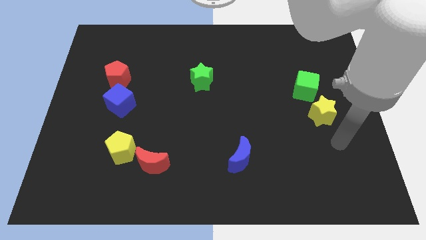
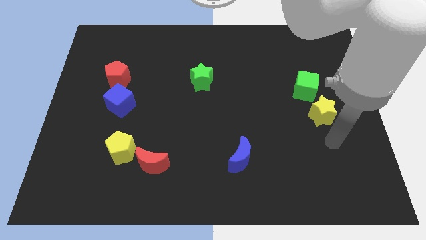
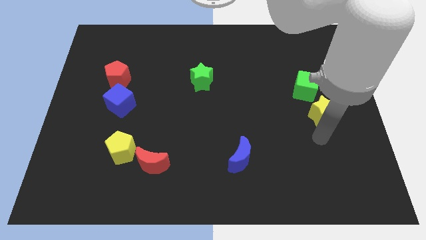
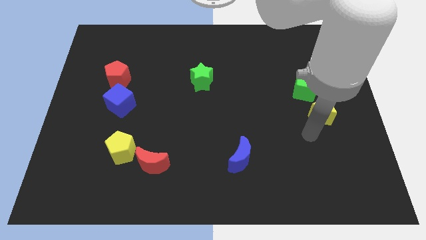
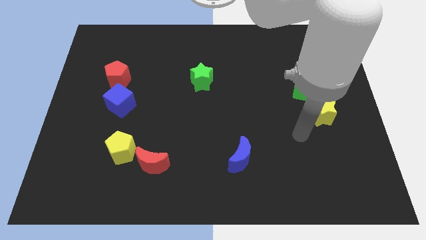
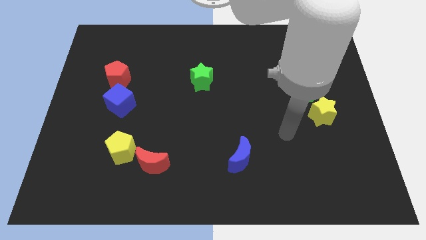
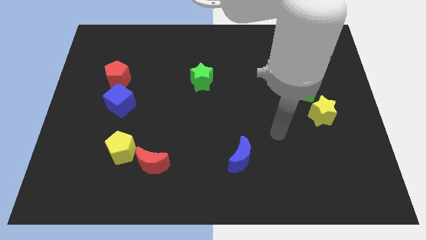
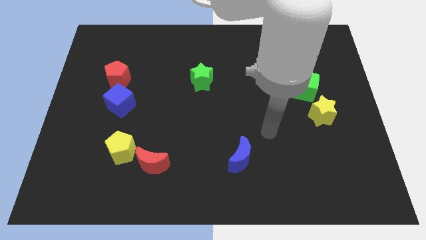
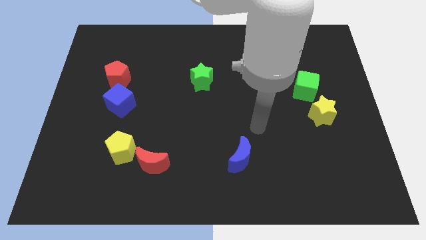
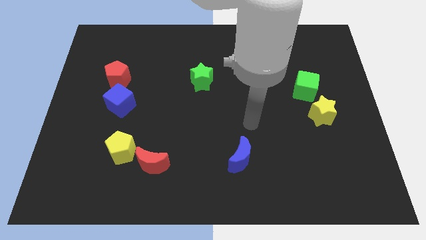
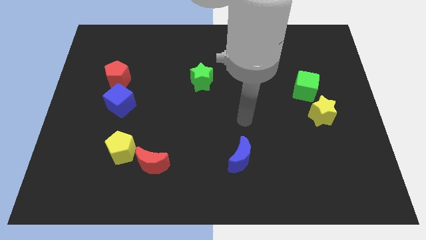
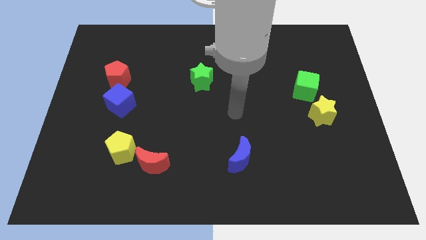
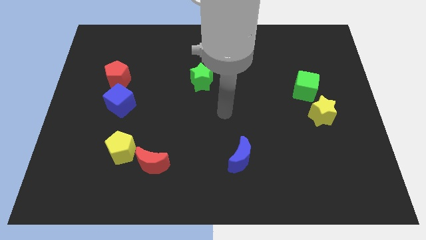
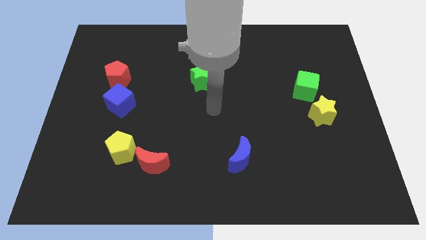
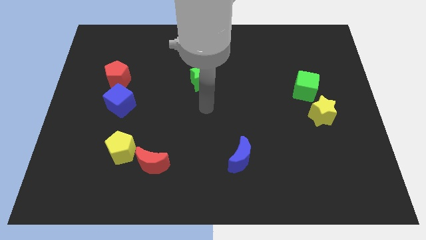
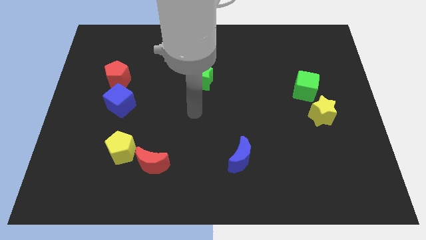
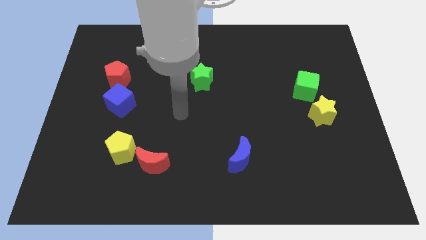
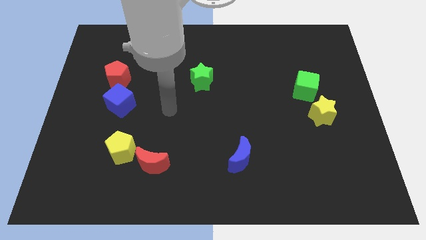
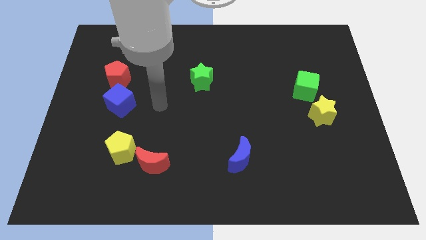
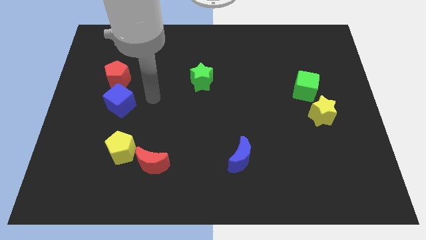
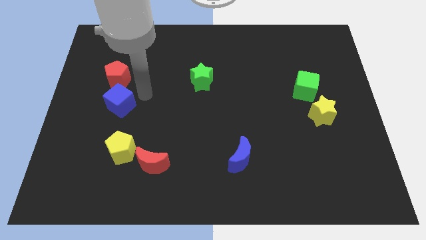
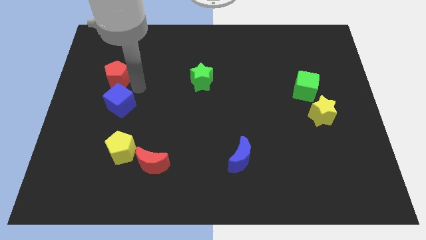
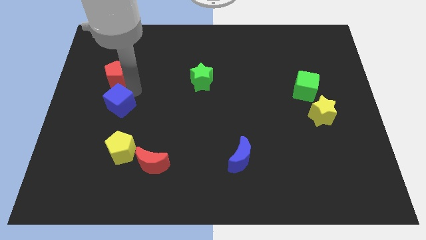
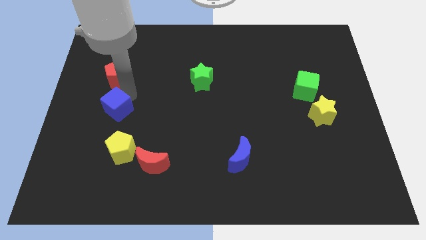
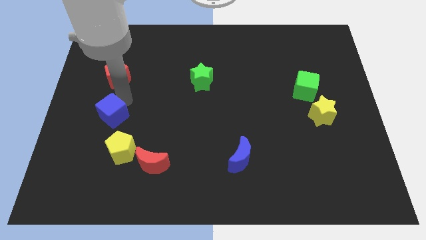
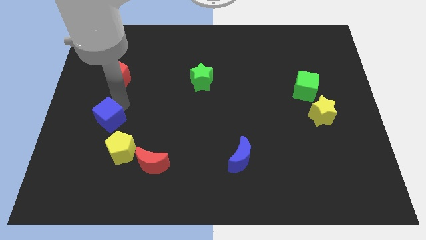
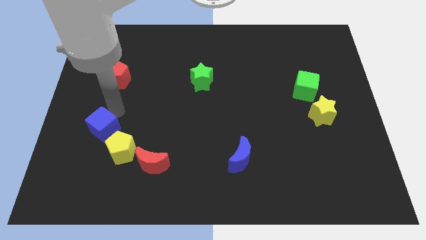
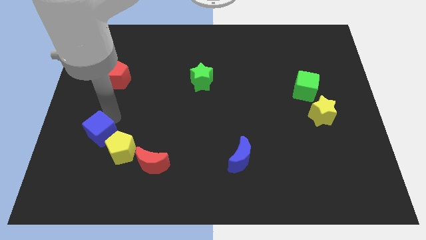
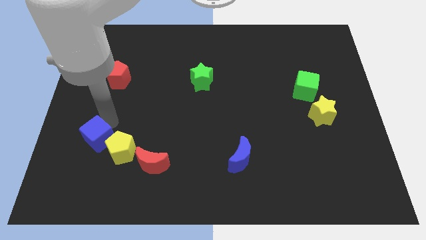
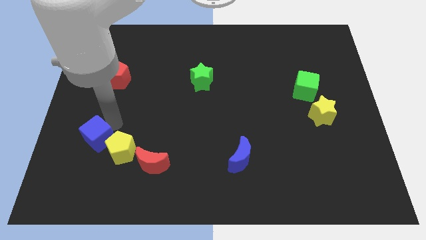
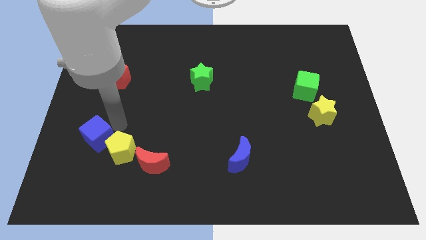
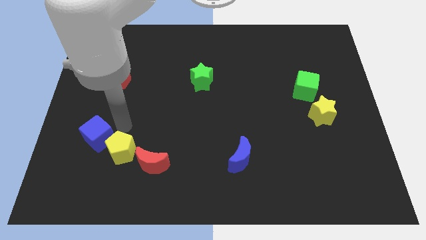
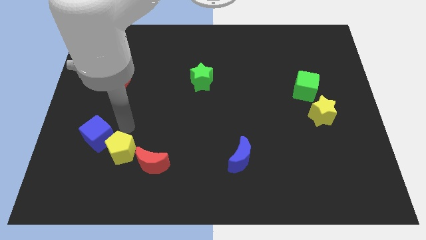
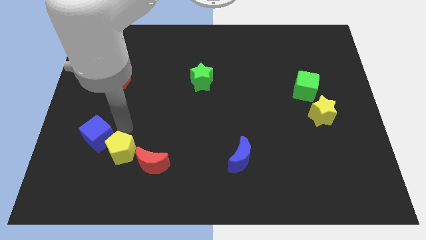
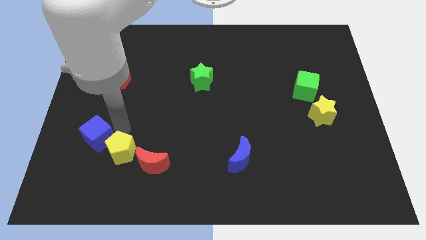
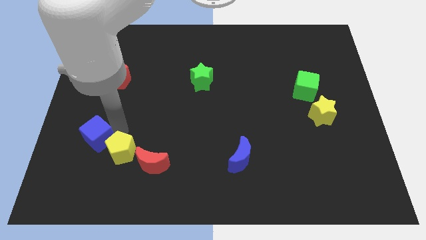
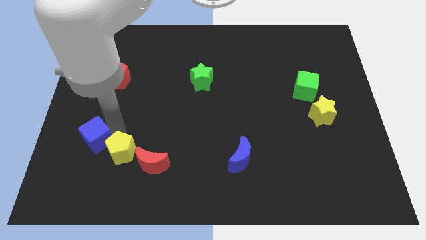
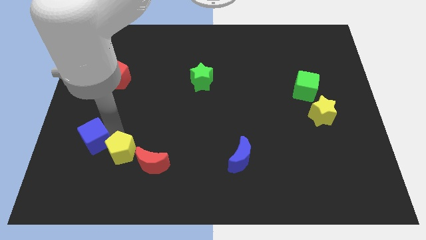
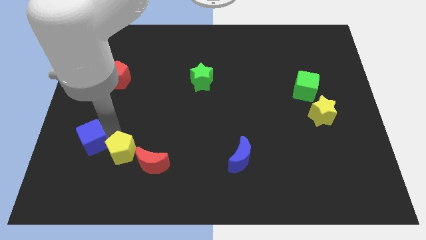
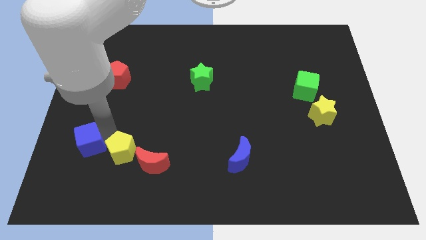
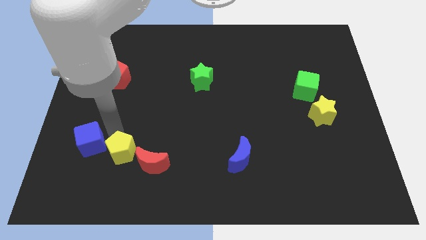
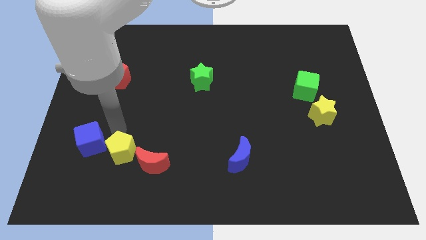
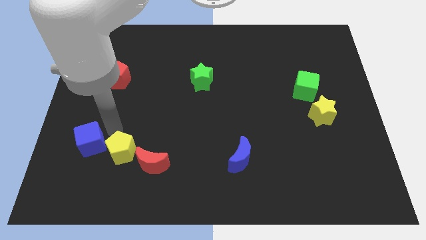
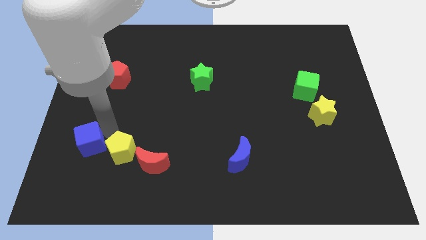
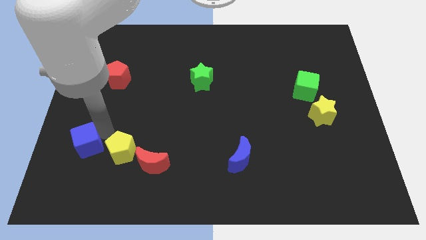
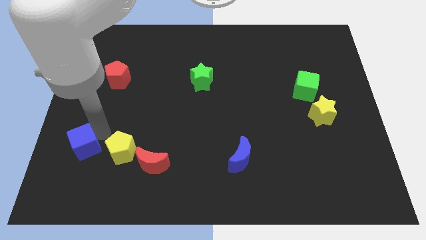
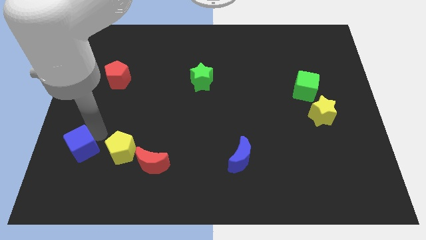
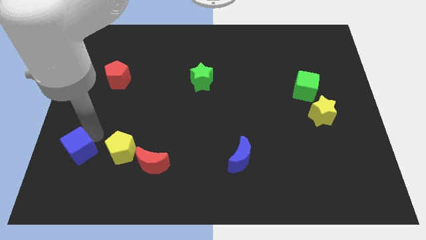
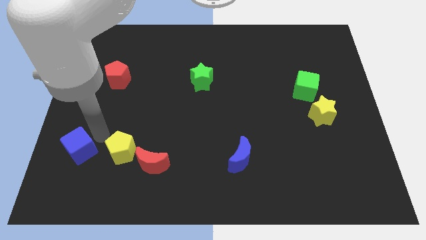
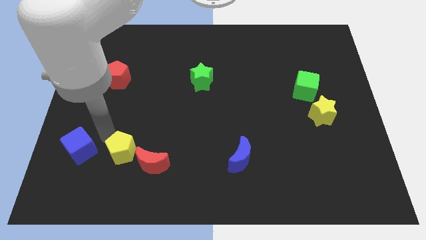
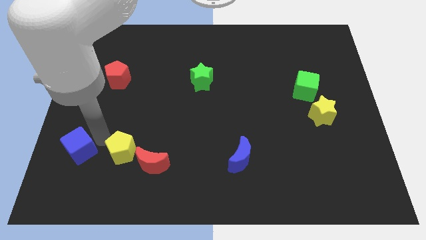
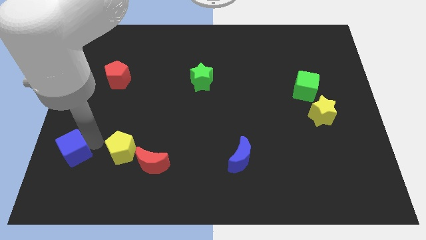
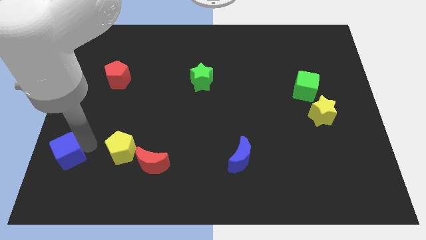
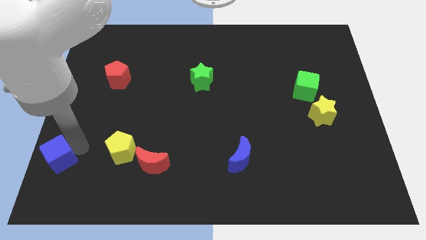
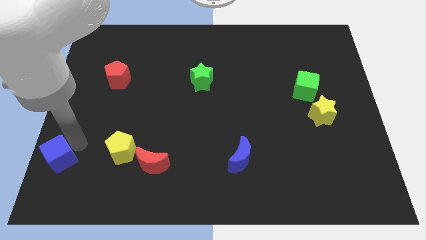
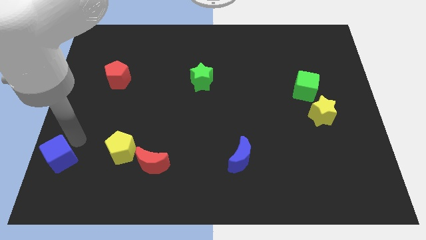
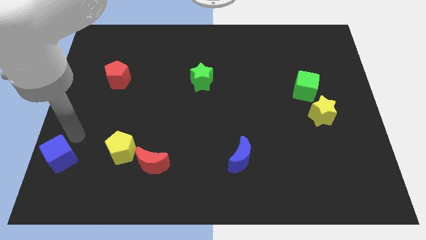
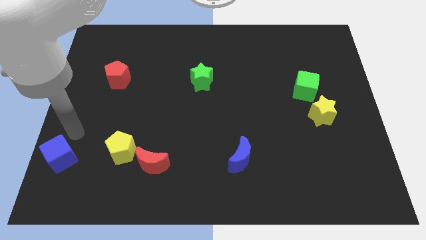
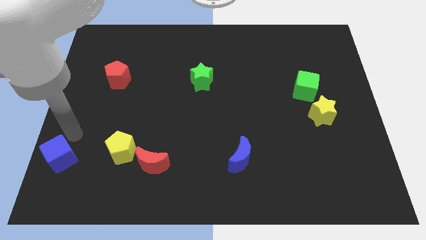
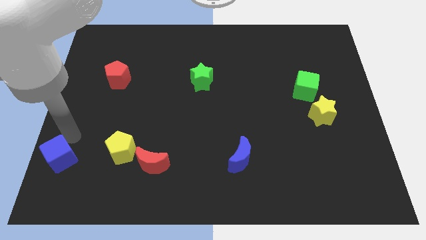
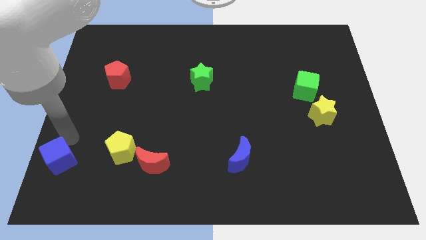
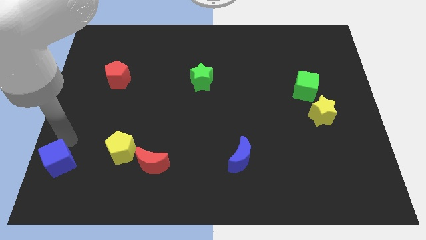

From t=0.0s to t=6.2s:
move the blue cube to the bottom left
